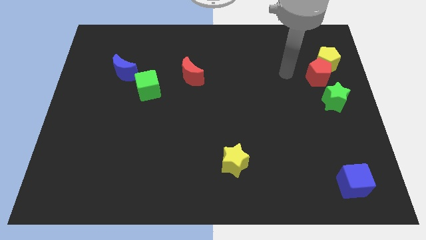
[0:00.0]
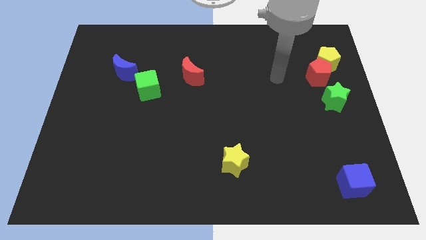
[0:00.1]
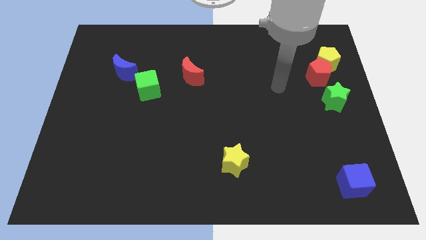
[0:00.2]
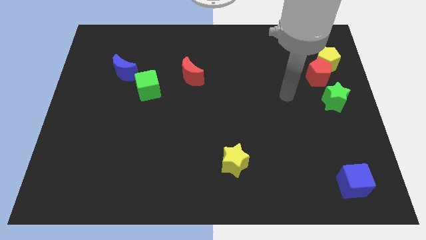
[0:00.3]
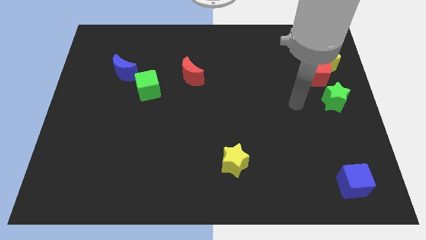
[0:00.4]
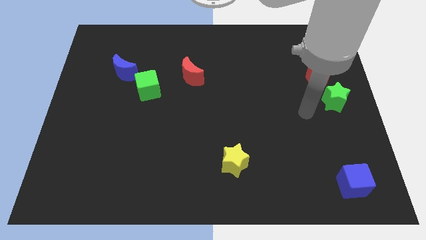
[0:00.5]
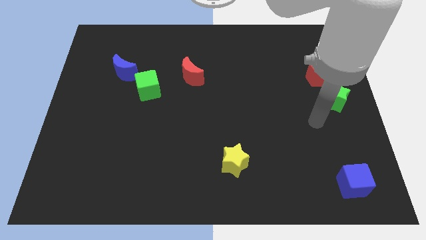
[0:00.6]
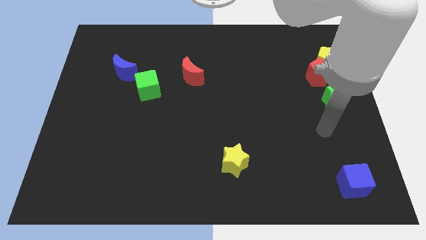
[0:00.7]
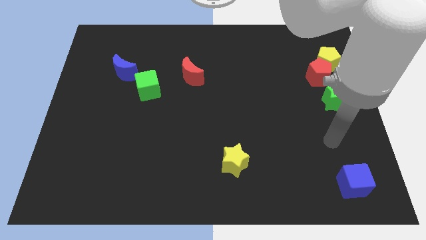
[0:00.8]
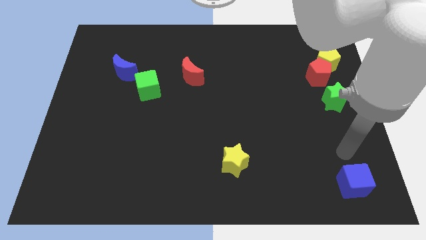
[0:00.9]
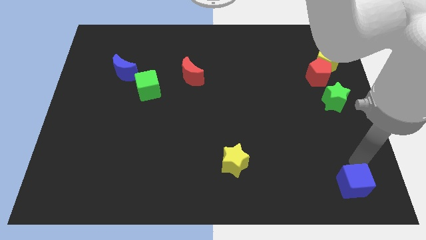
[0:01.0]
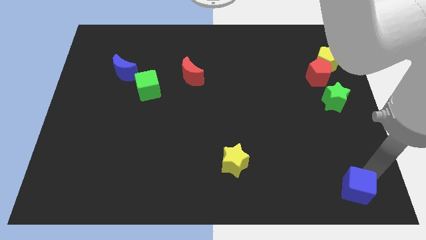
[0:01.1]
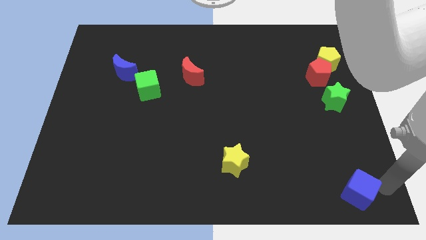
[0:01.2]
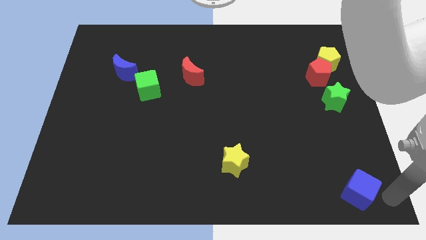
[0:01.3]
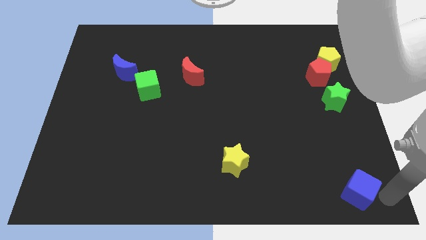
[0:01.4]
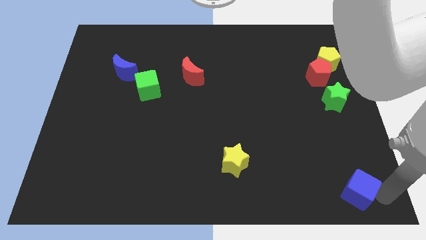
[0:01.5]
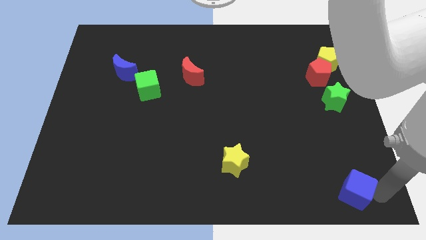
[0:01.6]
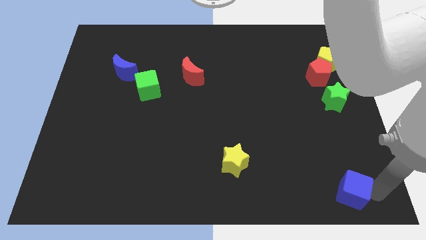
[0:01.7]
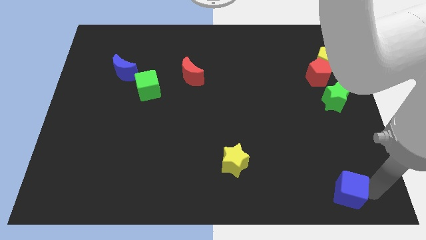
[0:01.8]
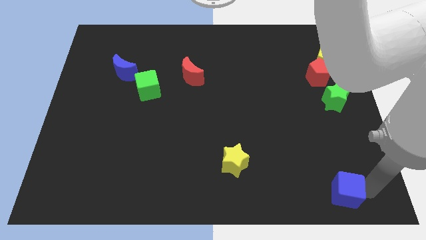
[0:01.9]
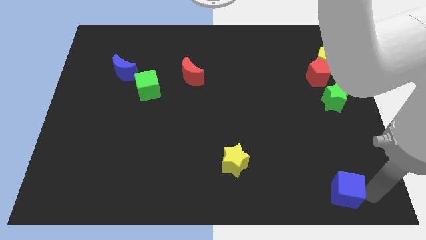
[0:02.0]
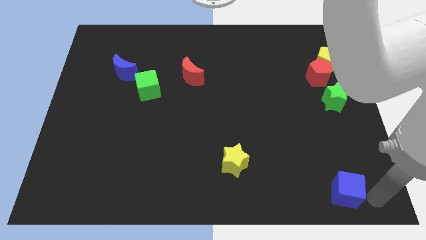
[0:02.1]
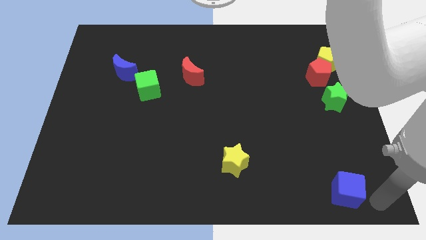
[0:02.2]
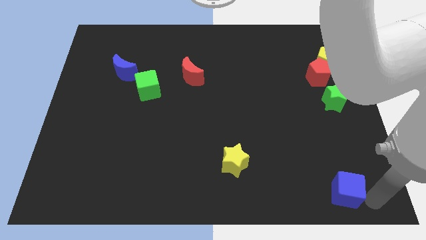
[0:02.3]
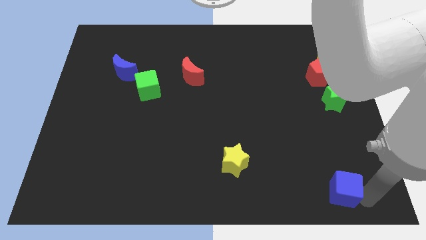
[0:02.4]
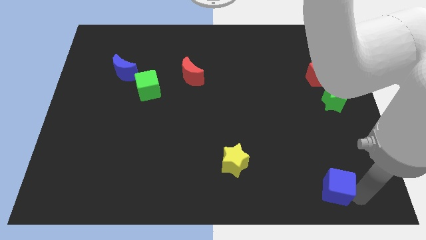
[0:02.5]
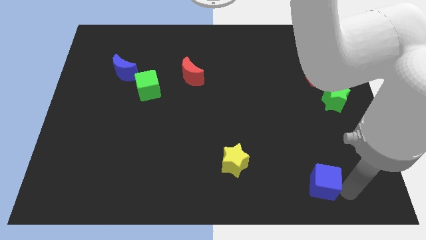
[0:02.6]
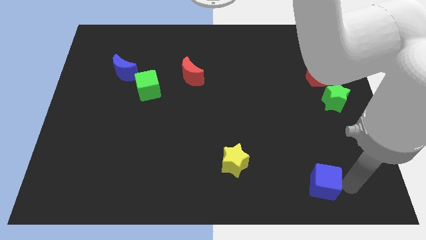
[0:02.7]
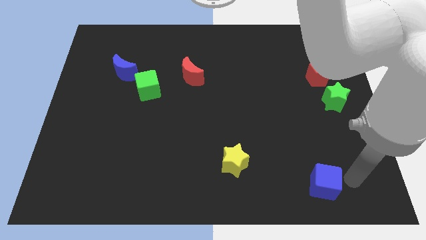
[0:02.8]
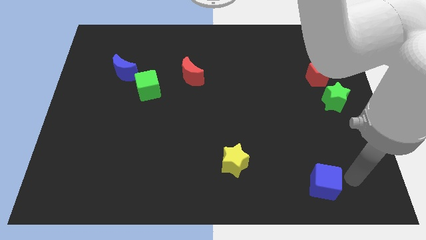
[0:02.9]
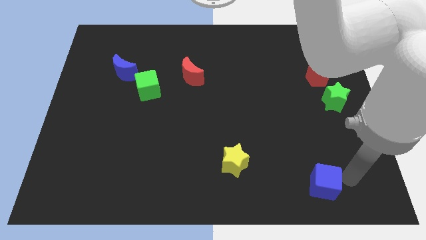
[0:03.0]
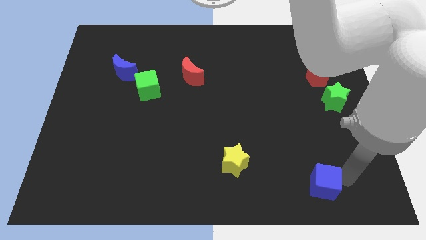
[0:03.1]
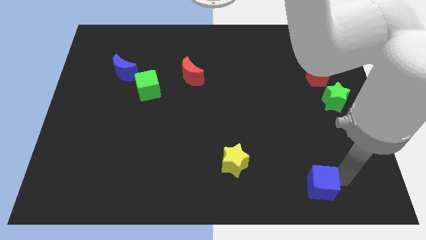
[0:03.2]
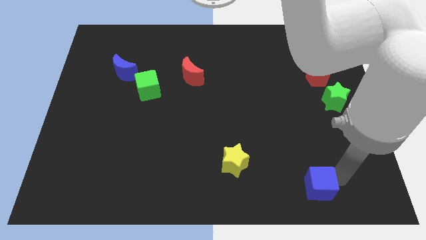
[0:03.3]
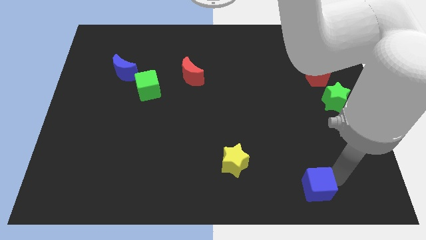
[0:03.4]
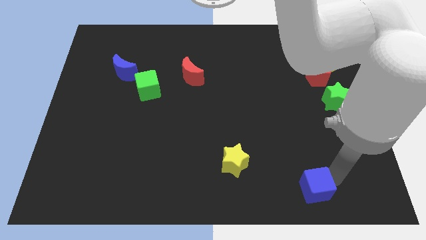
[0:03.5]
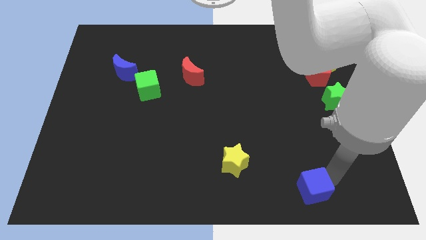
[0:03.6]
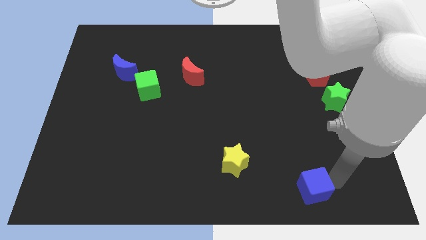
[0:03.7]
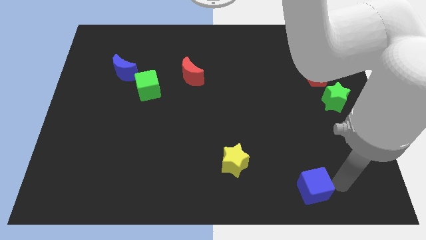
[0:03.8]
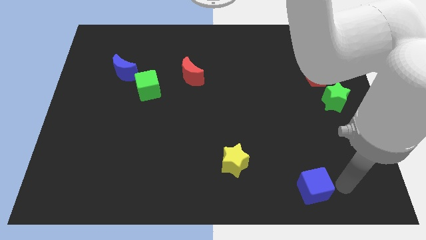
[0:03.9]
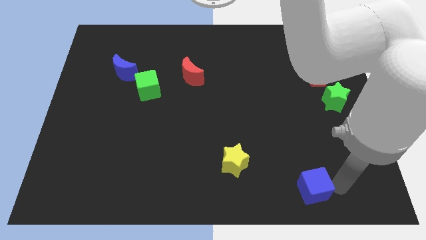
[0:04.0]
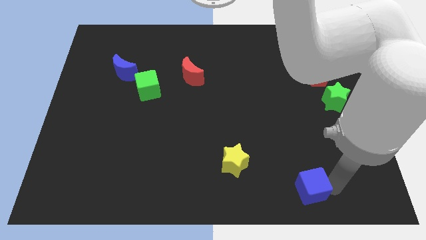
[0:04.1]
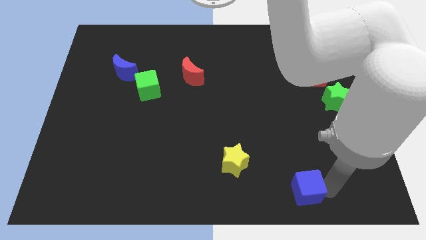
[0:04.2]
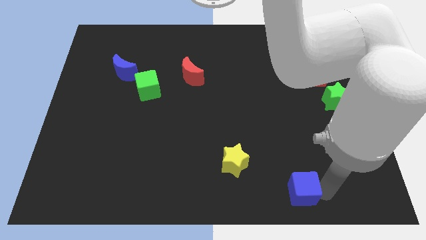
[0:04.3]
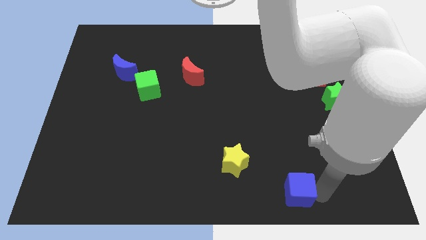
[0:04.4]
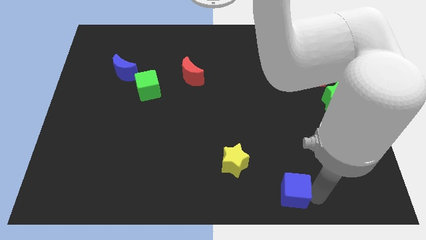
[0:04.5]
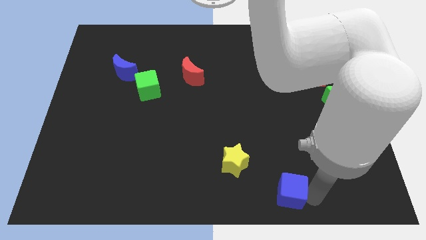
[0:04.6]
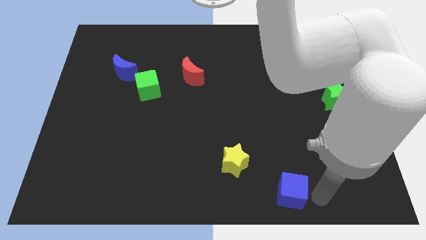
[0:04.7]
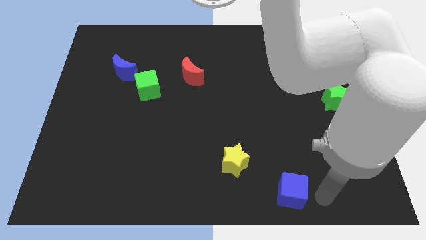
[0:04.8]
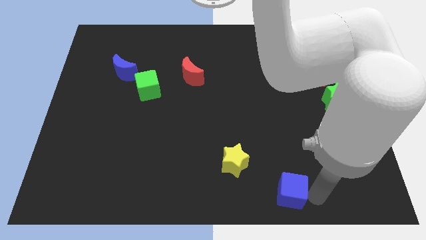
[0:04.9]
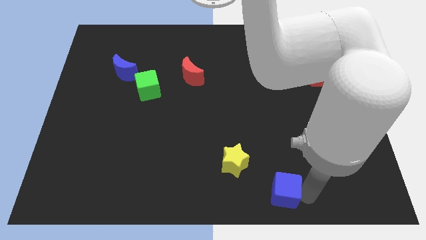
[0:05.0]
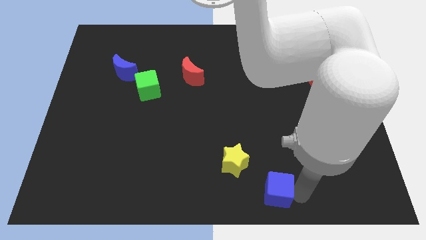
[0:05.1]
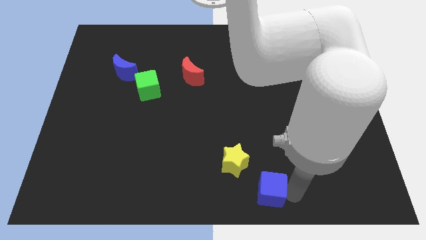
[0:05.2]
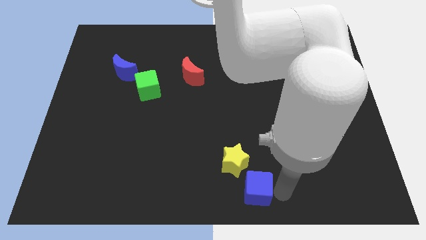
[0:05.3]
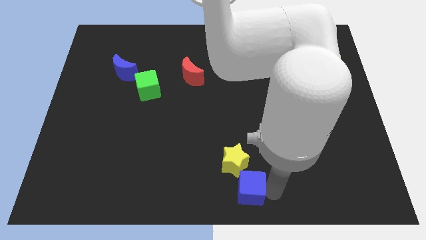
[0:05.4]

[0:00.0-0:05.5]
move the blue cube left

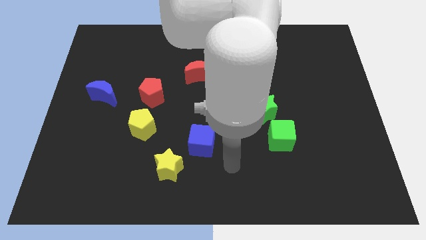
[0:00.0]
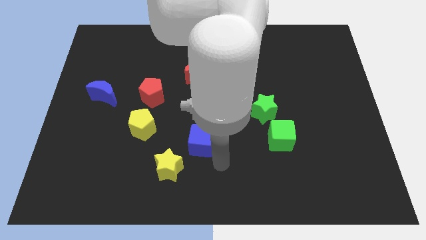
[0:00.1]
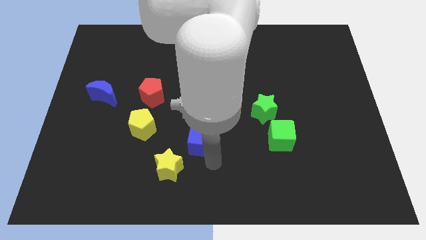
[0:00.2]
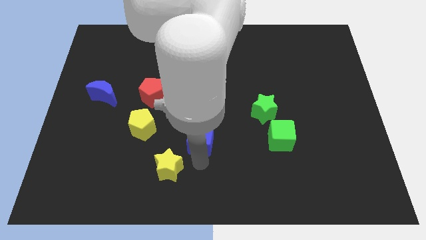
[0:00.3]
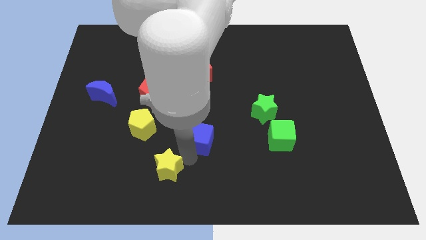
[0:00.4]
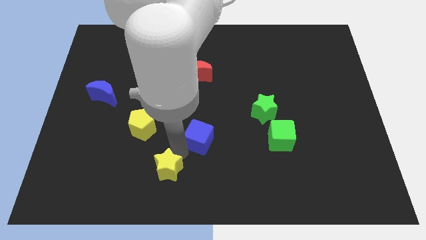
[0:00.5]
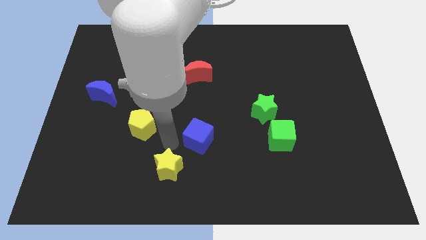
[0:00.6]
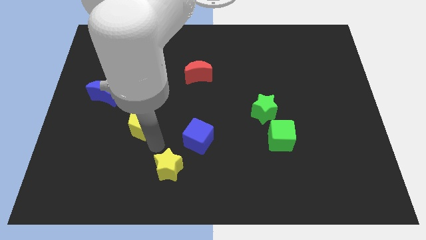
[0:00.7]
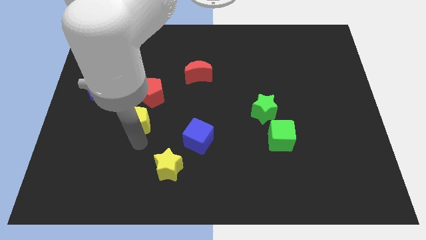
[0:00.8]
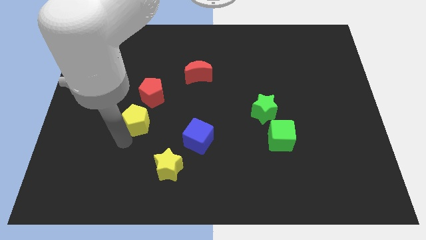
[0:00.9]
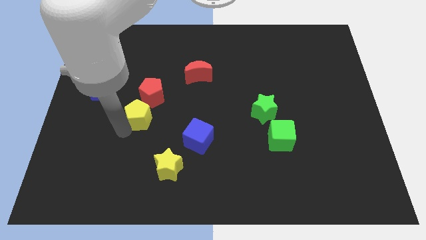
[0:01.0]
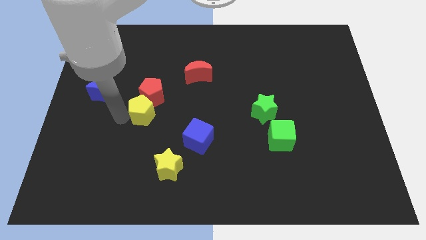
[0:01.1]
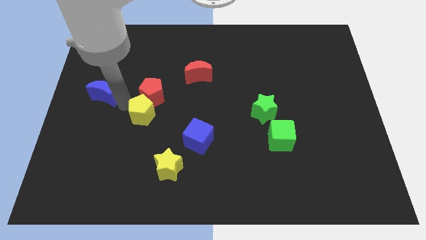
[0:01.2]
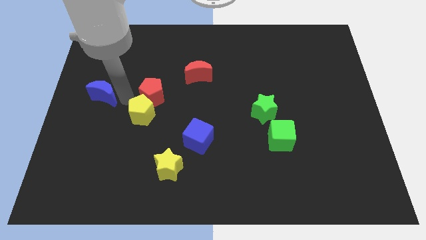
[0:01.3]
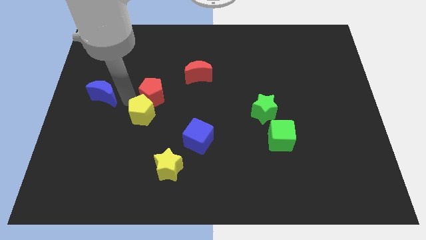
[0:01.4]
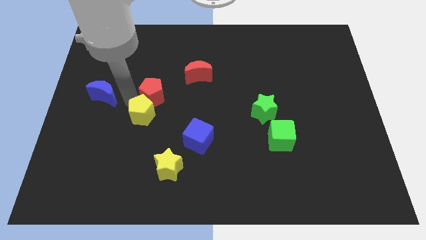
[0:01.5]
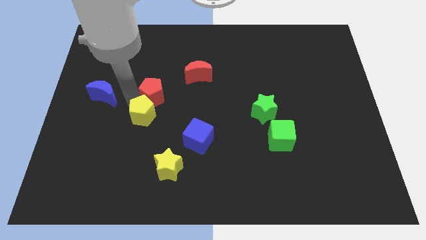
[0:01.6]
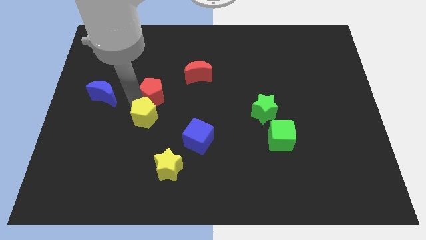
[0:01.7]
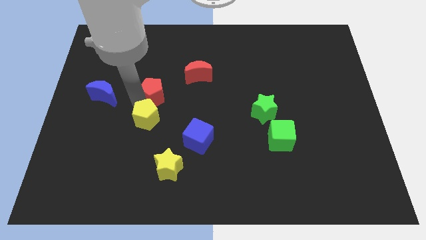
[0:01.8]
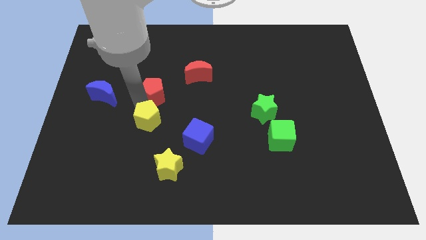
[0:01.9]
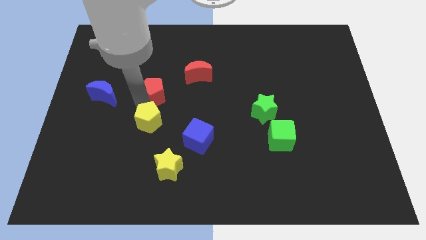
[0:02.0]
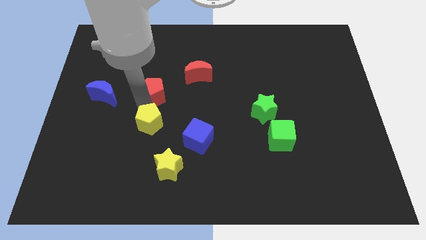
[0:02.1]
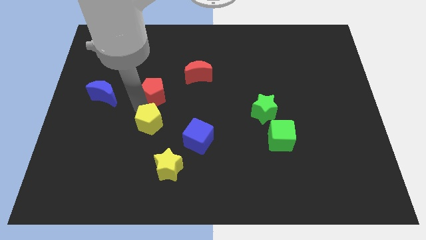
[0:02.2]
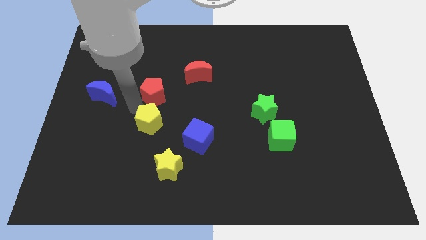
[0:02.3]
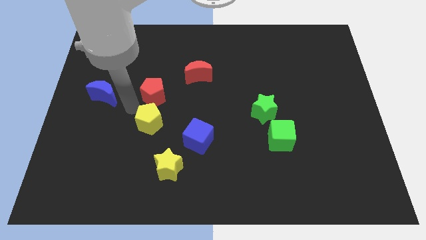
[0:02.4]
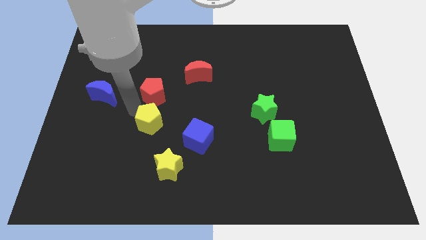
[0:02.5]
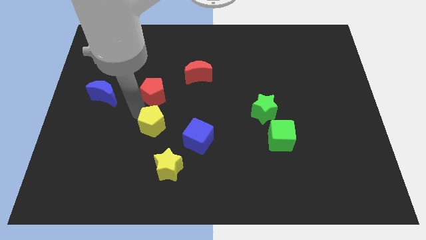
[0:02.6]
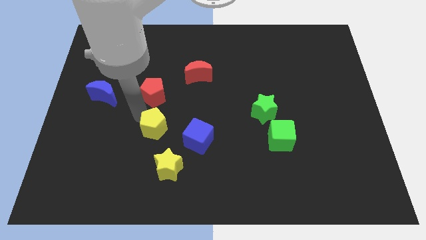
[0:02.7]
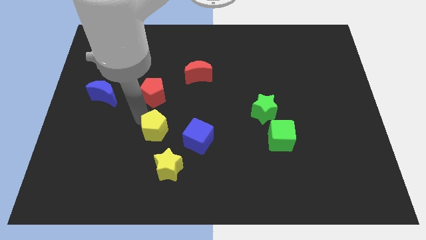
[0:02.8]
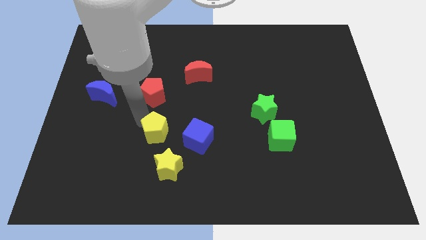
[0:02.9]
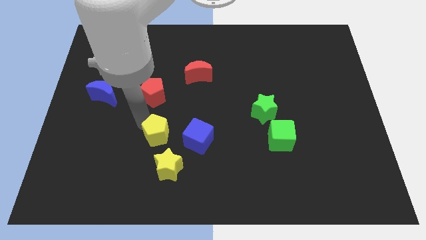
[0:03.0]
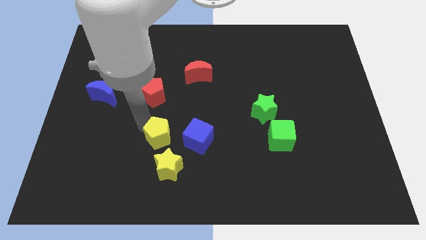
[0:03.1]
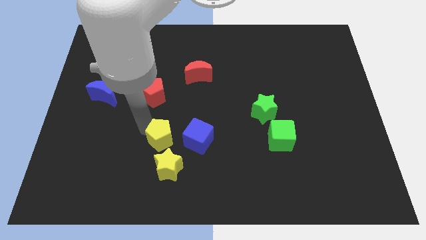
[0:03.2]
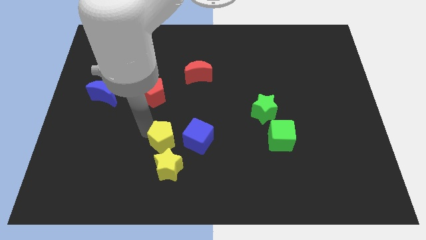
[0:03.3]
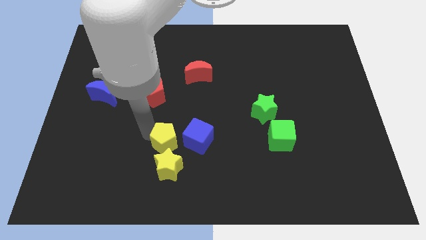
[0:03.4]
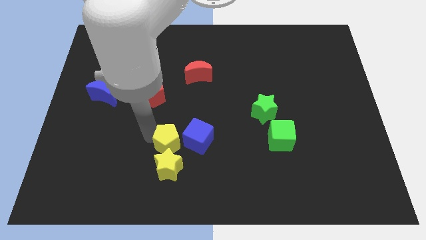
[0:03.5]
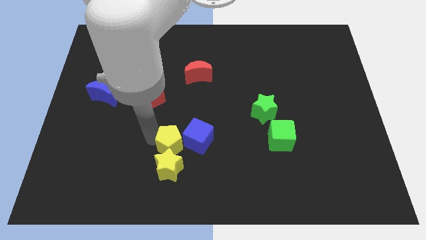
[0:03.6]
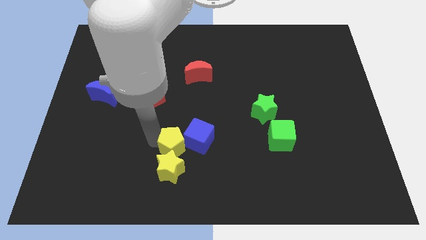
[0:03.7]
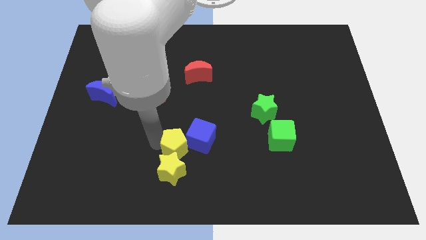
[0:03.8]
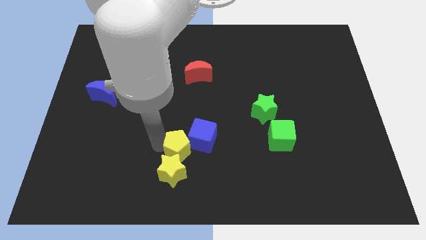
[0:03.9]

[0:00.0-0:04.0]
slightly move the yellow pentagon right
